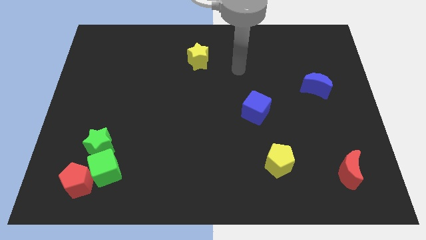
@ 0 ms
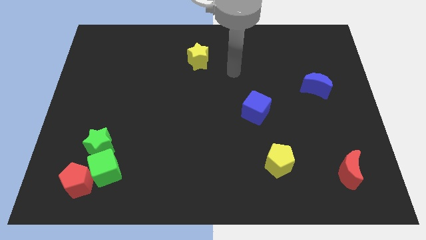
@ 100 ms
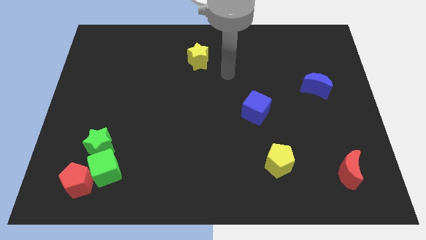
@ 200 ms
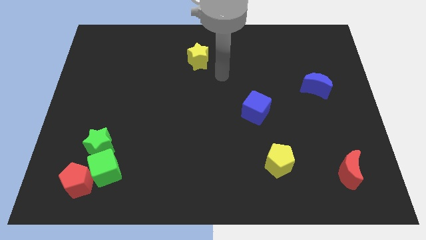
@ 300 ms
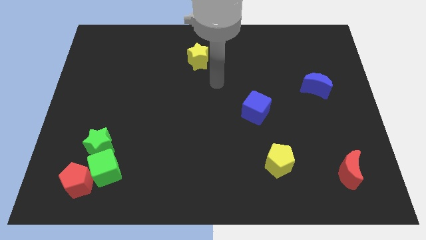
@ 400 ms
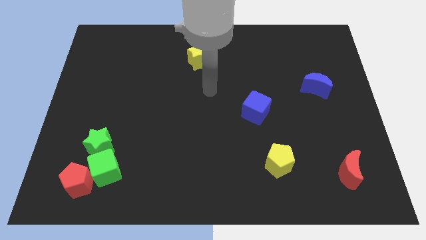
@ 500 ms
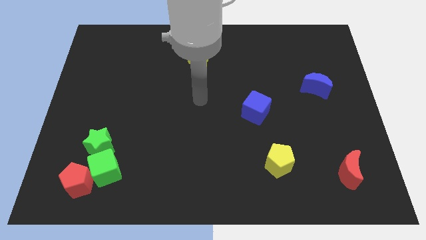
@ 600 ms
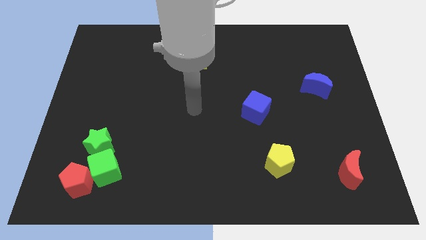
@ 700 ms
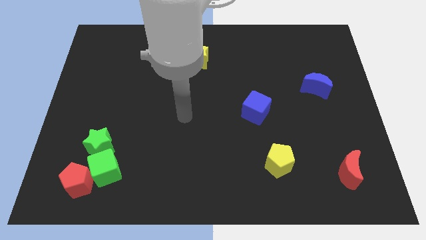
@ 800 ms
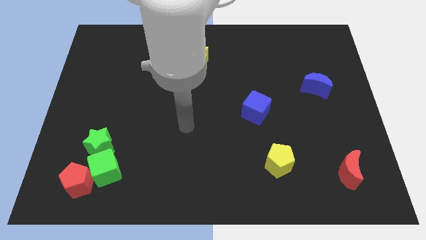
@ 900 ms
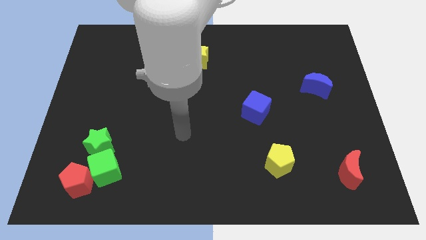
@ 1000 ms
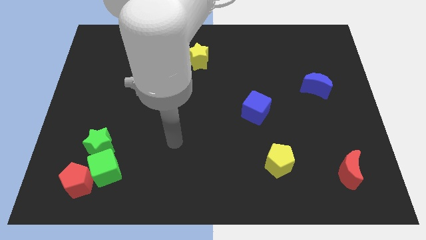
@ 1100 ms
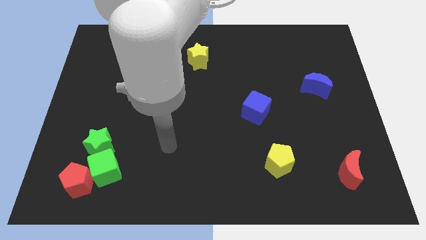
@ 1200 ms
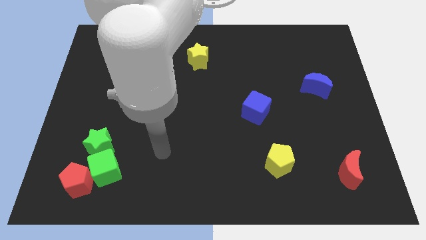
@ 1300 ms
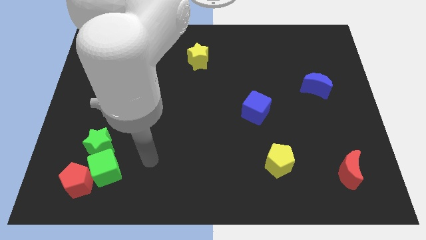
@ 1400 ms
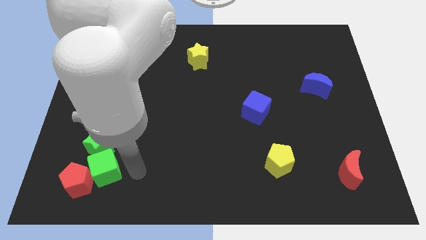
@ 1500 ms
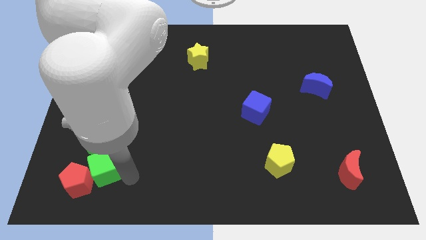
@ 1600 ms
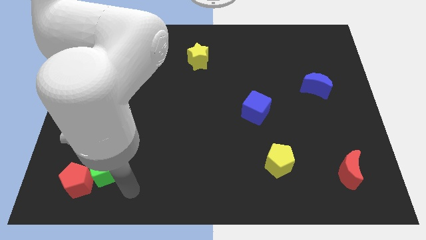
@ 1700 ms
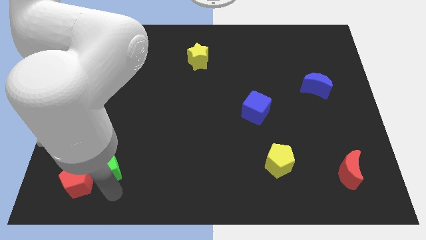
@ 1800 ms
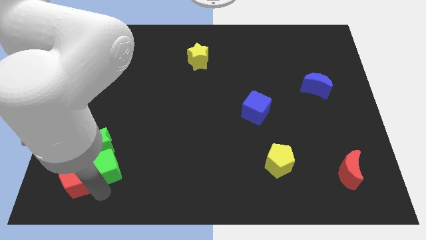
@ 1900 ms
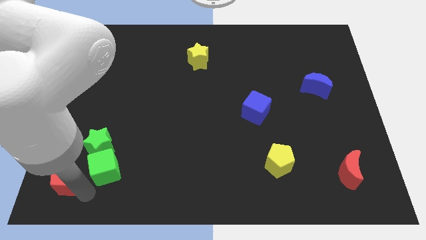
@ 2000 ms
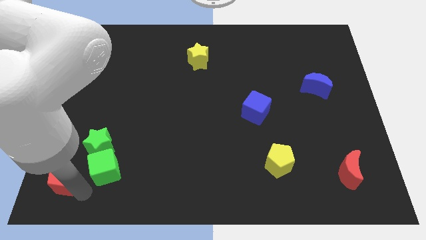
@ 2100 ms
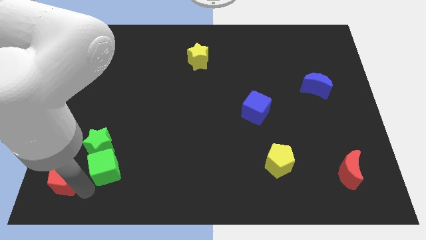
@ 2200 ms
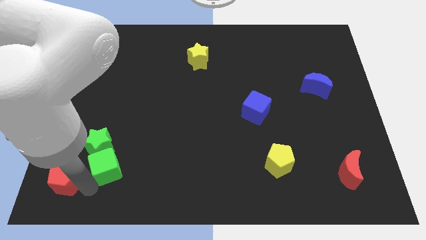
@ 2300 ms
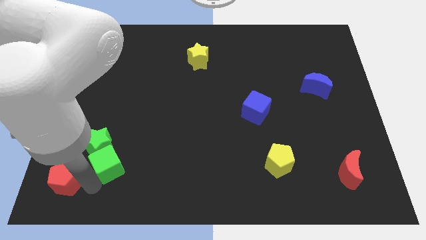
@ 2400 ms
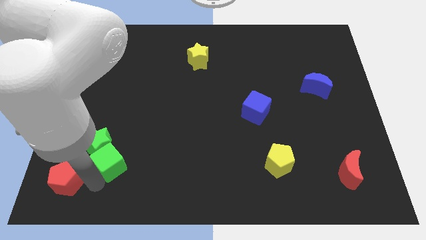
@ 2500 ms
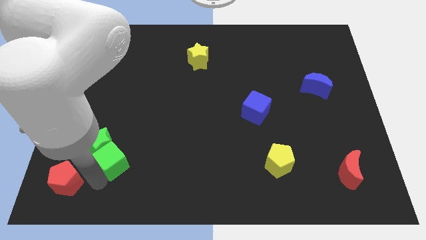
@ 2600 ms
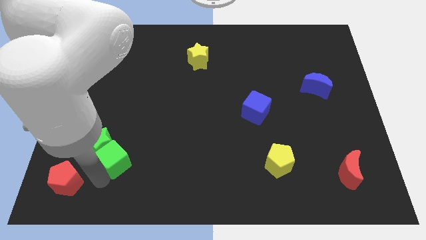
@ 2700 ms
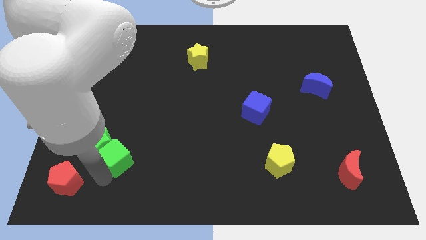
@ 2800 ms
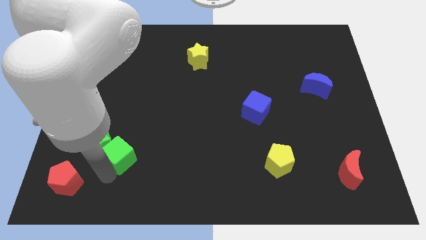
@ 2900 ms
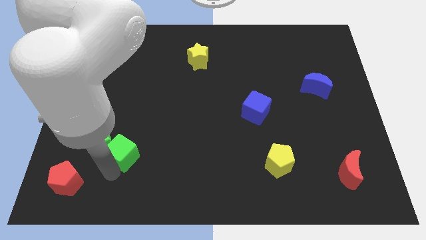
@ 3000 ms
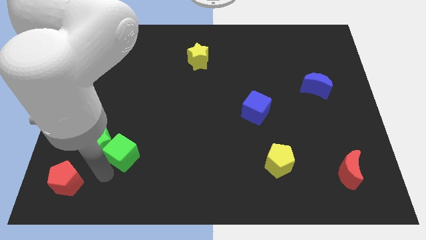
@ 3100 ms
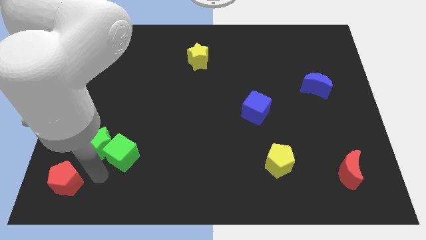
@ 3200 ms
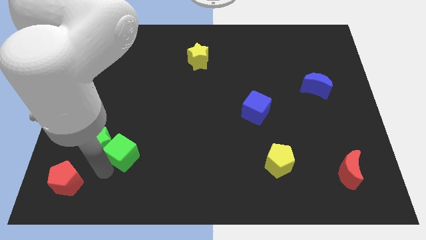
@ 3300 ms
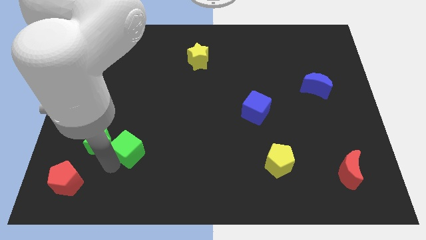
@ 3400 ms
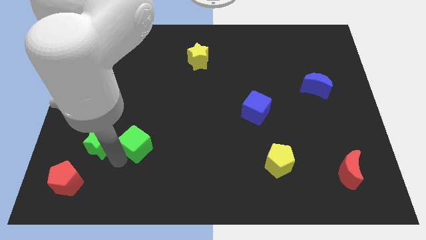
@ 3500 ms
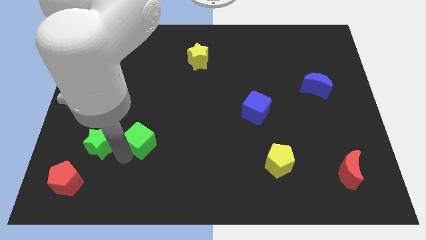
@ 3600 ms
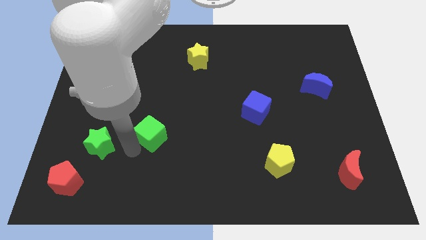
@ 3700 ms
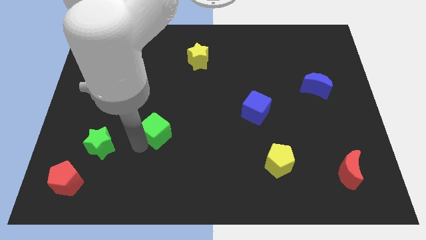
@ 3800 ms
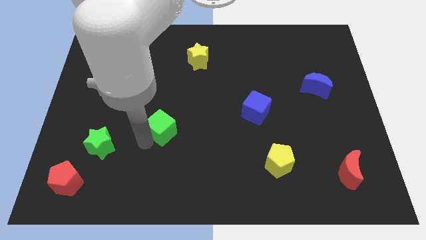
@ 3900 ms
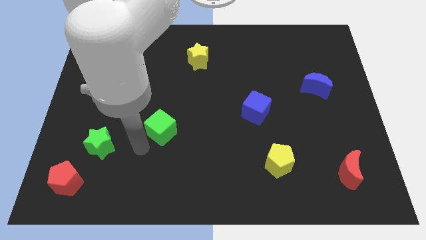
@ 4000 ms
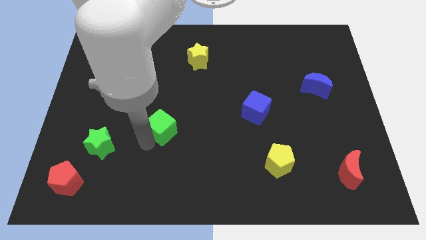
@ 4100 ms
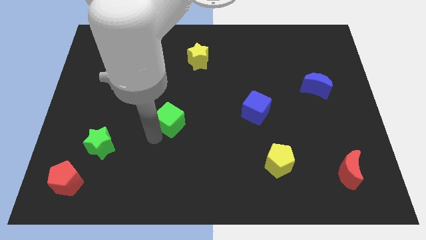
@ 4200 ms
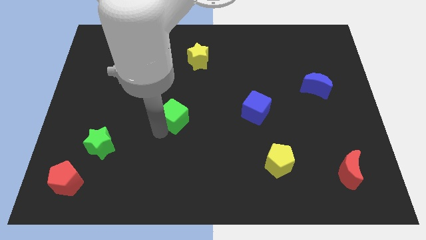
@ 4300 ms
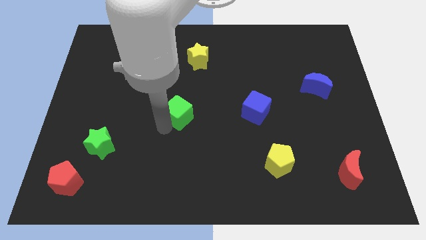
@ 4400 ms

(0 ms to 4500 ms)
push the green cube upwards and to the right

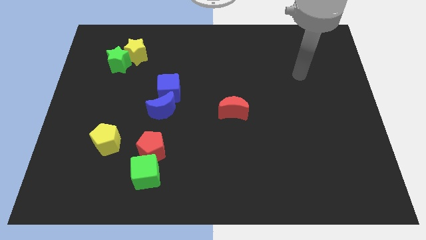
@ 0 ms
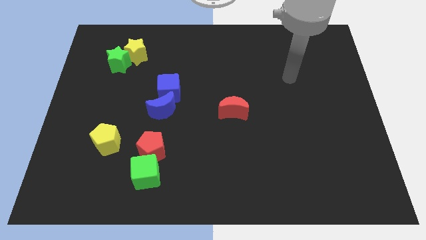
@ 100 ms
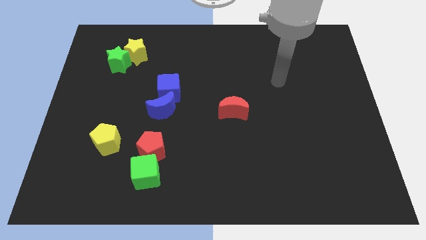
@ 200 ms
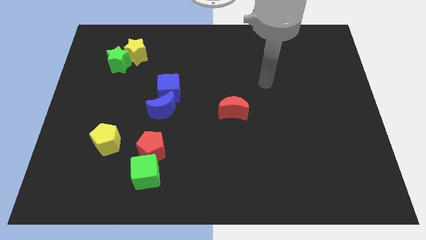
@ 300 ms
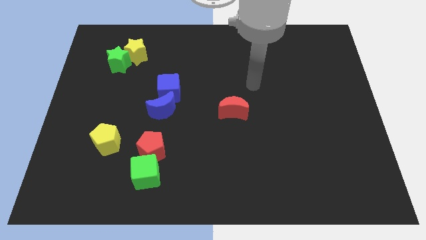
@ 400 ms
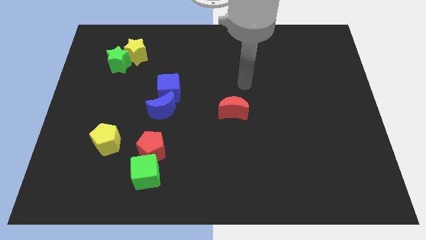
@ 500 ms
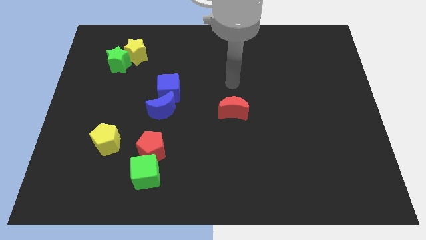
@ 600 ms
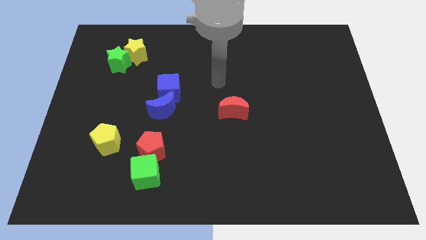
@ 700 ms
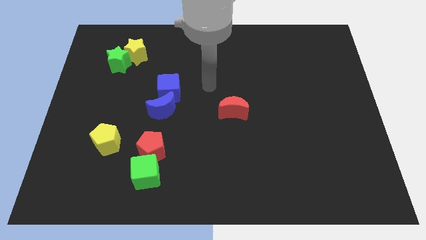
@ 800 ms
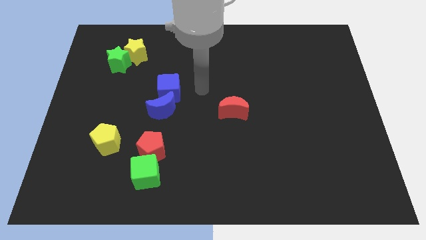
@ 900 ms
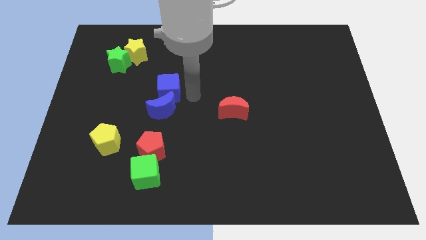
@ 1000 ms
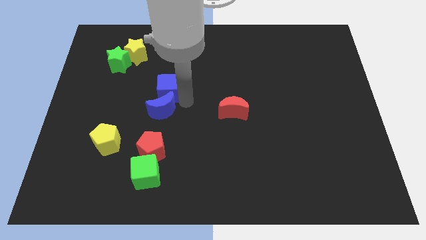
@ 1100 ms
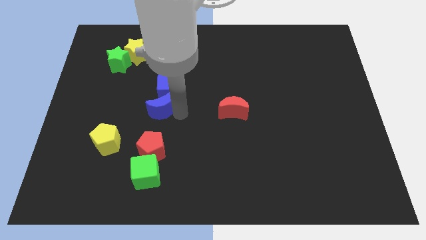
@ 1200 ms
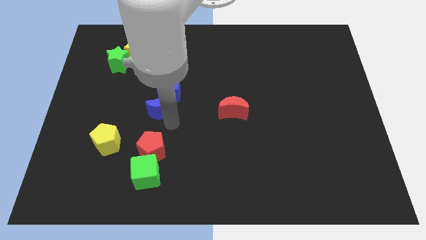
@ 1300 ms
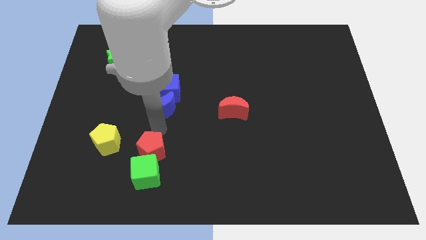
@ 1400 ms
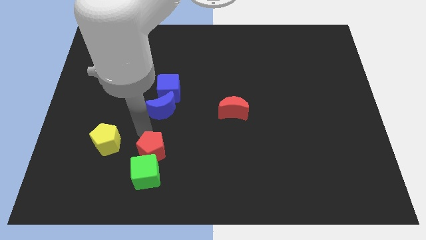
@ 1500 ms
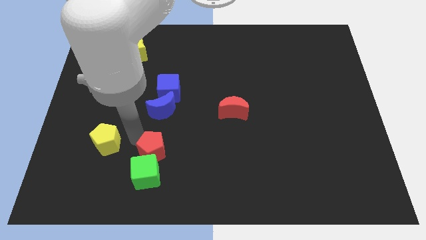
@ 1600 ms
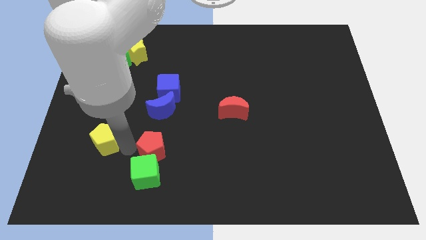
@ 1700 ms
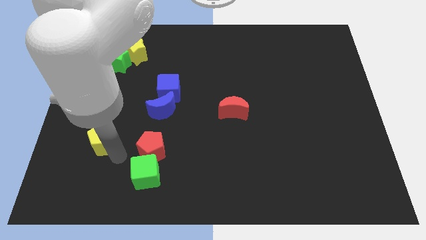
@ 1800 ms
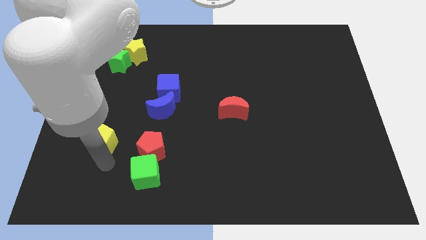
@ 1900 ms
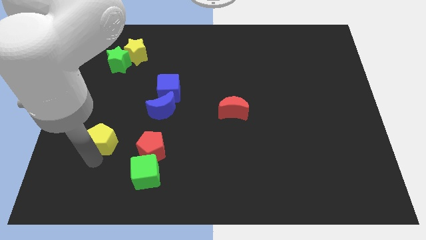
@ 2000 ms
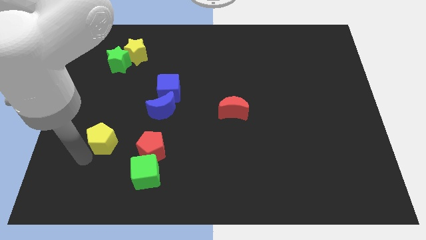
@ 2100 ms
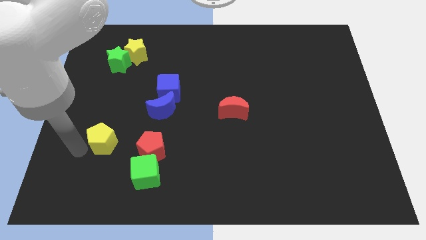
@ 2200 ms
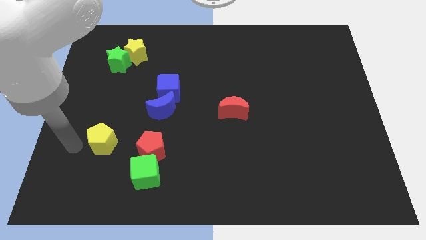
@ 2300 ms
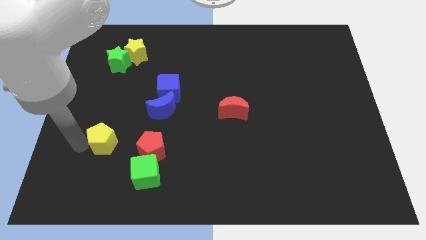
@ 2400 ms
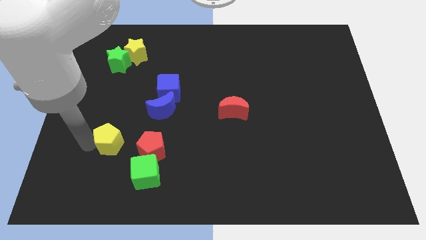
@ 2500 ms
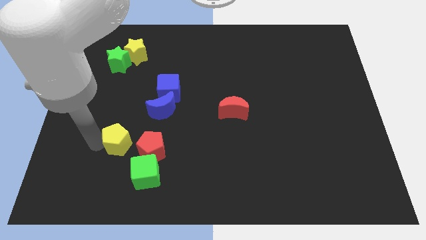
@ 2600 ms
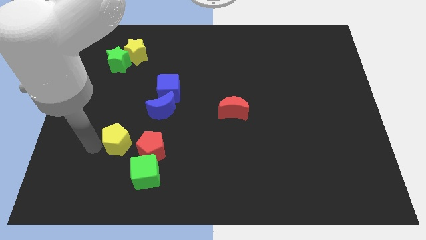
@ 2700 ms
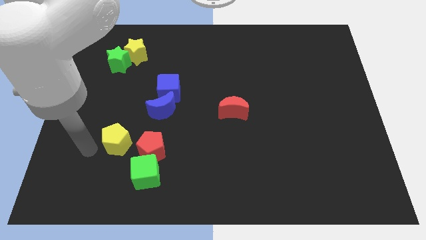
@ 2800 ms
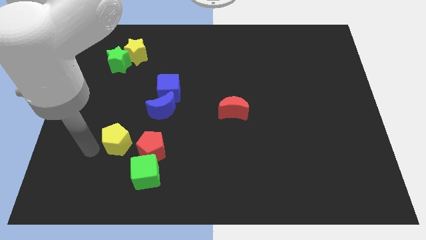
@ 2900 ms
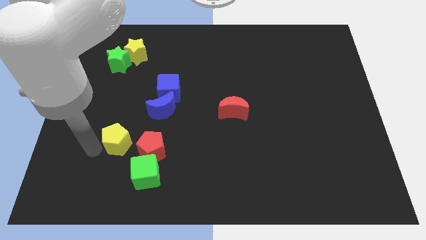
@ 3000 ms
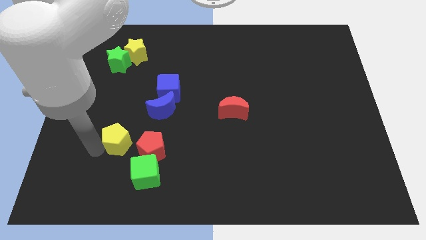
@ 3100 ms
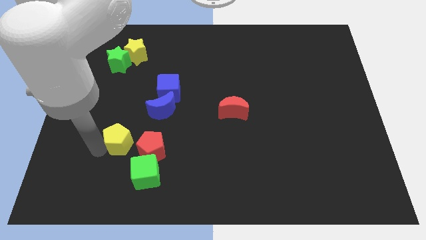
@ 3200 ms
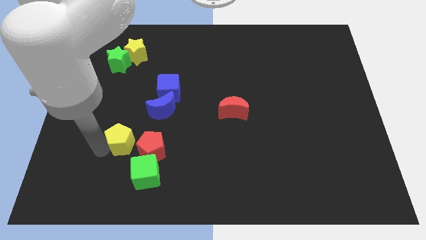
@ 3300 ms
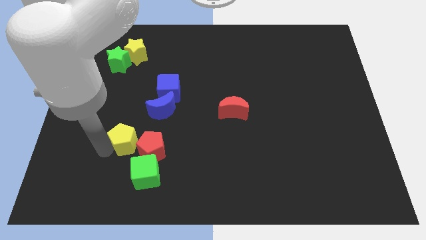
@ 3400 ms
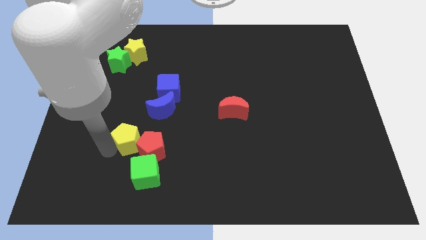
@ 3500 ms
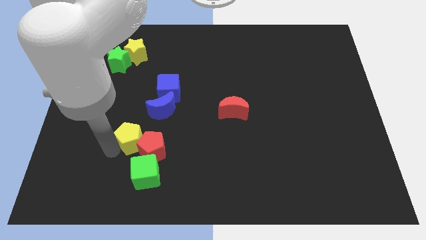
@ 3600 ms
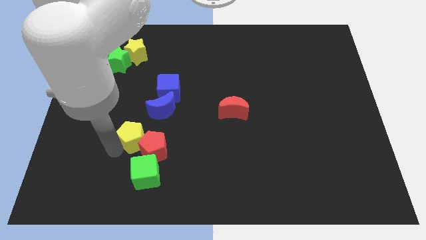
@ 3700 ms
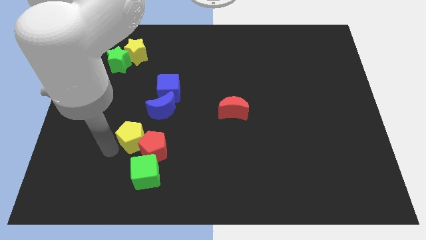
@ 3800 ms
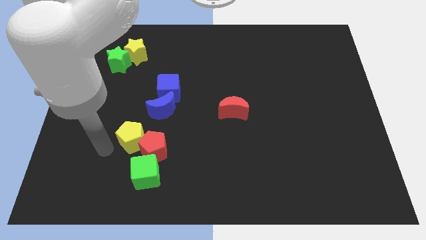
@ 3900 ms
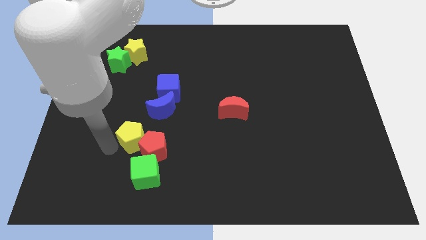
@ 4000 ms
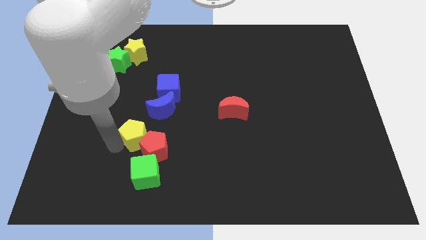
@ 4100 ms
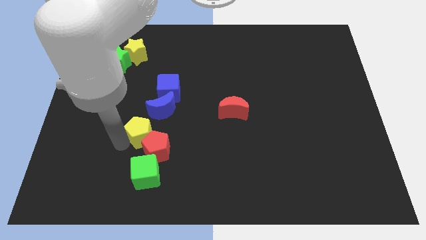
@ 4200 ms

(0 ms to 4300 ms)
slightly push the yellow pentagon to the right
